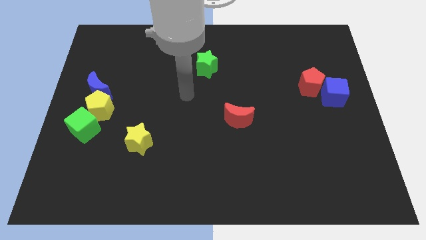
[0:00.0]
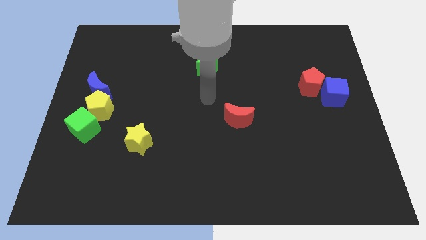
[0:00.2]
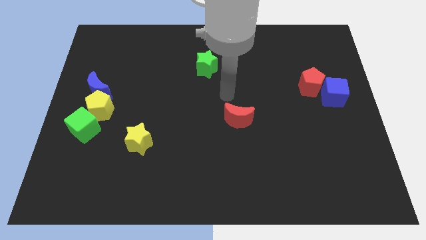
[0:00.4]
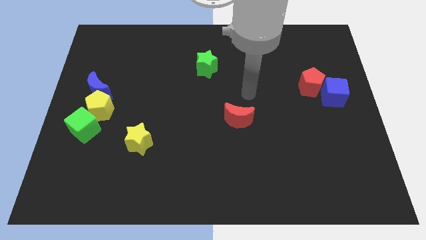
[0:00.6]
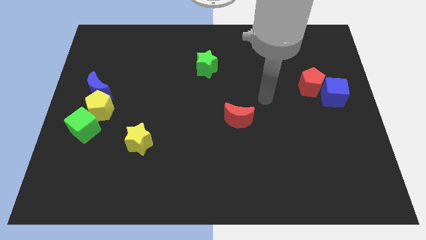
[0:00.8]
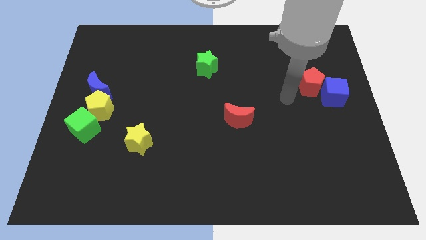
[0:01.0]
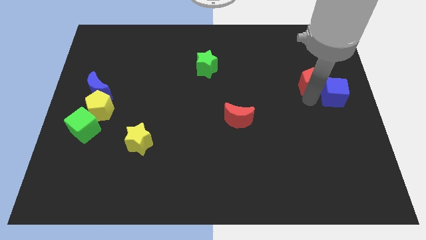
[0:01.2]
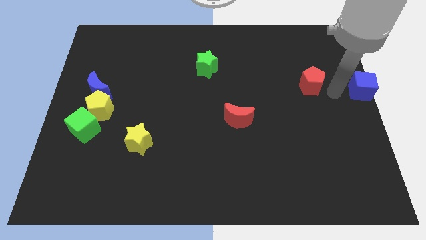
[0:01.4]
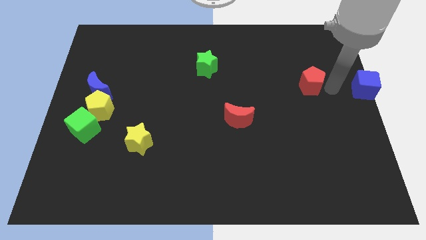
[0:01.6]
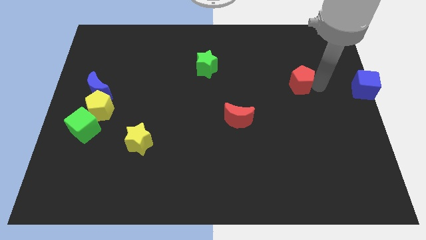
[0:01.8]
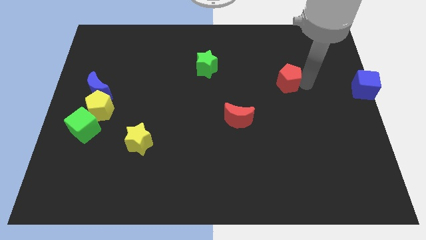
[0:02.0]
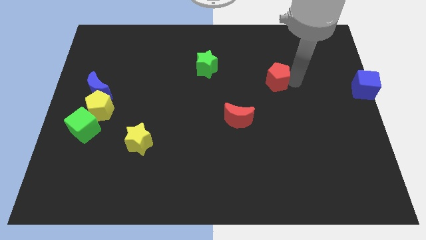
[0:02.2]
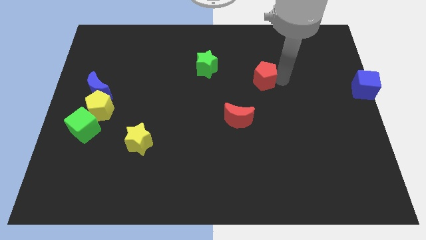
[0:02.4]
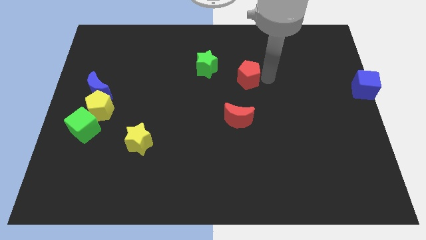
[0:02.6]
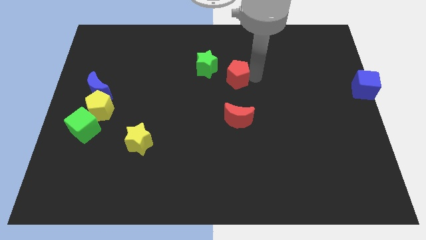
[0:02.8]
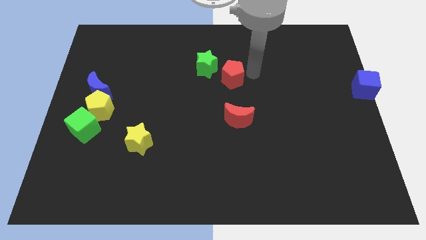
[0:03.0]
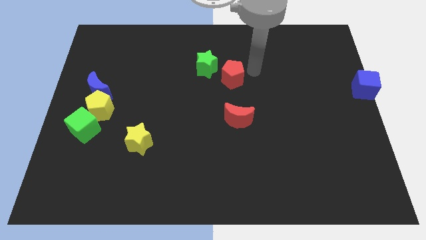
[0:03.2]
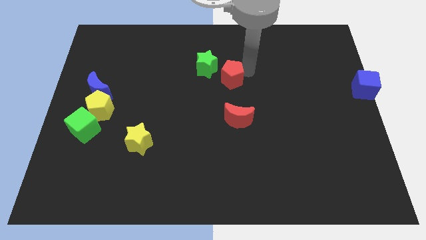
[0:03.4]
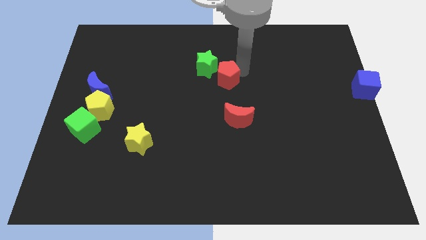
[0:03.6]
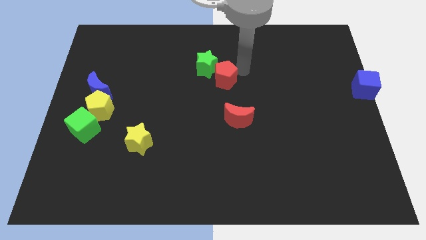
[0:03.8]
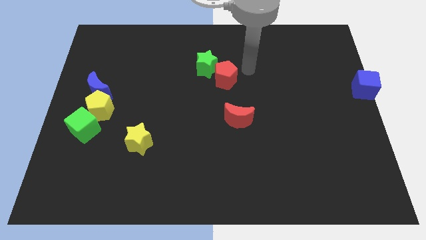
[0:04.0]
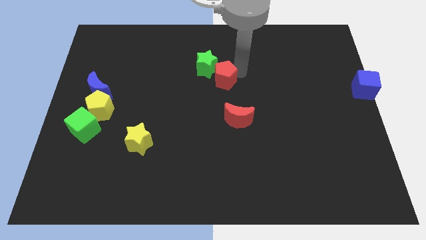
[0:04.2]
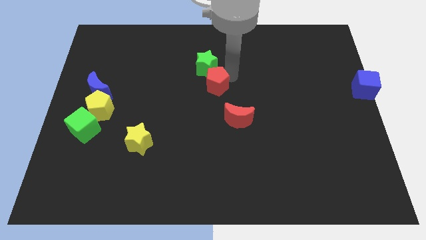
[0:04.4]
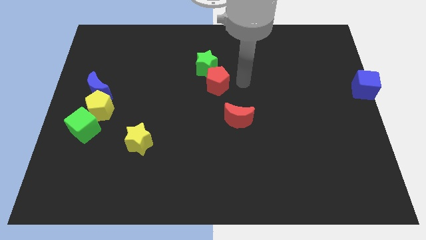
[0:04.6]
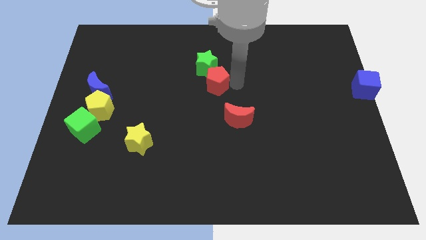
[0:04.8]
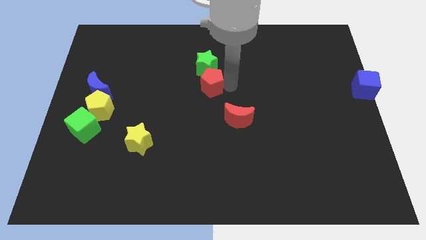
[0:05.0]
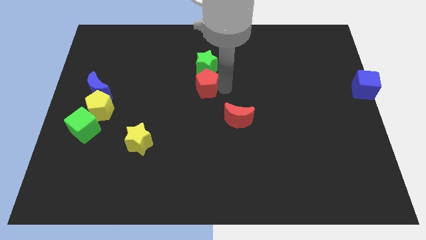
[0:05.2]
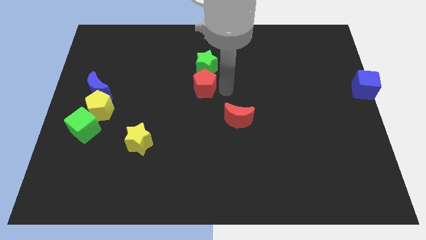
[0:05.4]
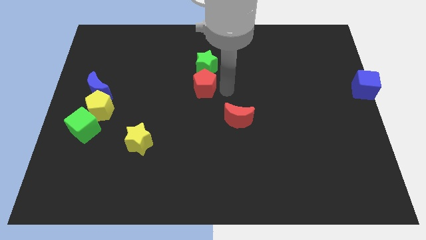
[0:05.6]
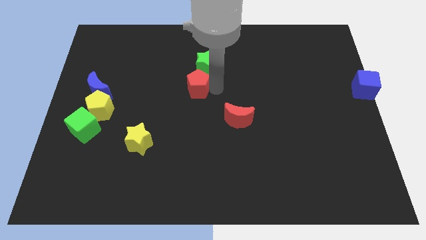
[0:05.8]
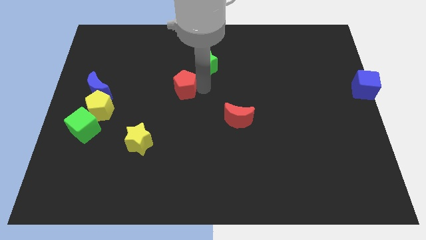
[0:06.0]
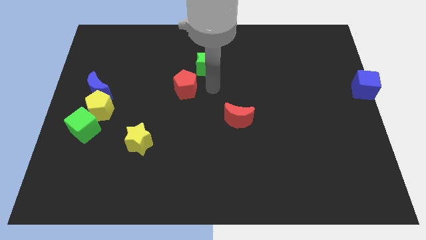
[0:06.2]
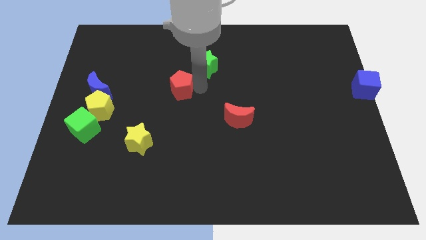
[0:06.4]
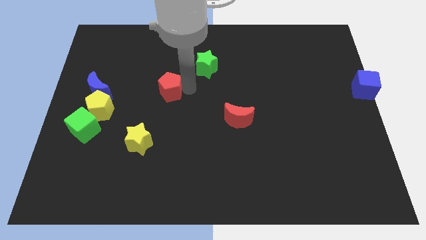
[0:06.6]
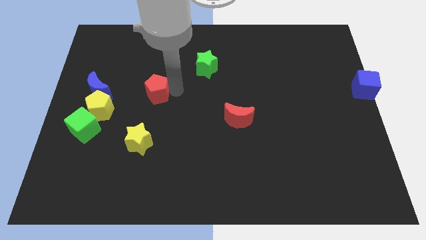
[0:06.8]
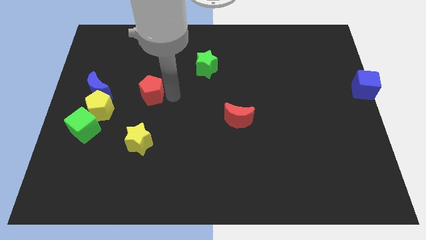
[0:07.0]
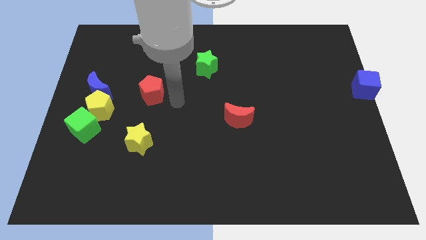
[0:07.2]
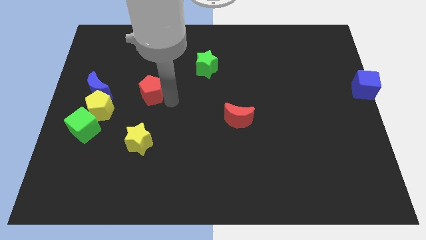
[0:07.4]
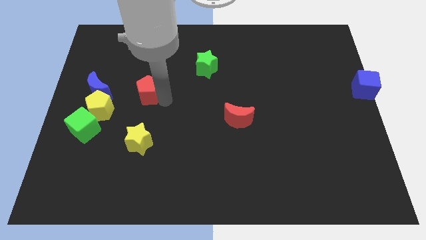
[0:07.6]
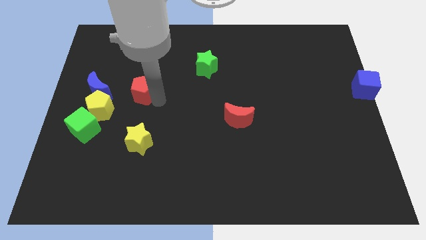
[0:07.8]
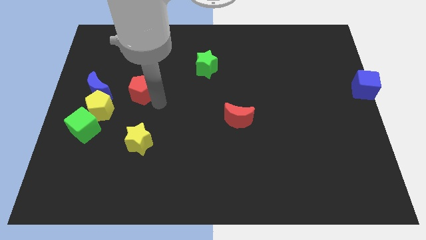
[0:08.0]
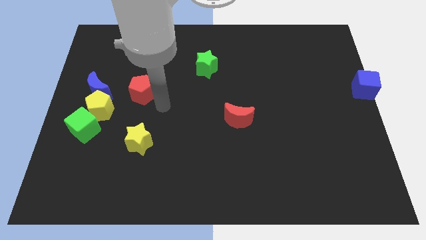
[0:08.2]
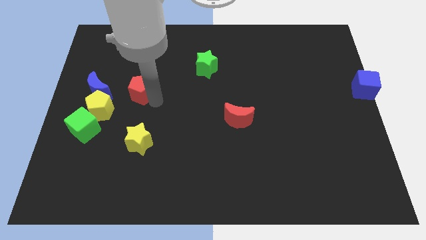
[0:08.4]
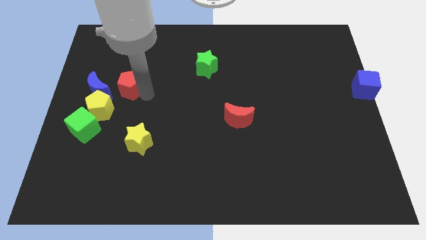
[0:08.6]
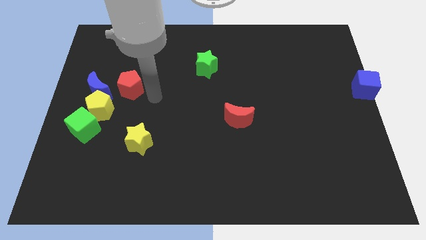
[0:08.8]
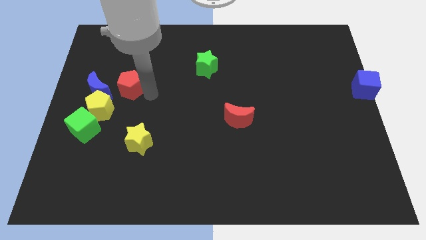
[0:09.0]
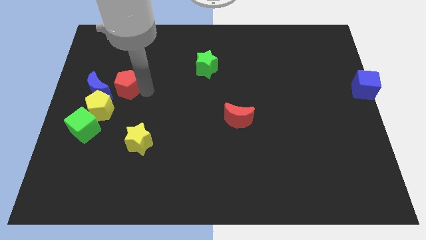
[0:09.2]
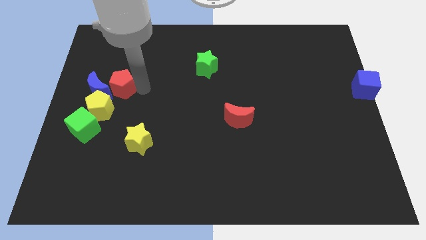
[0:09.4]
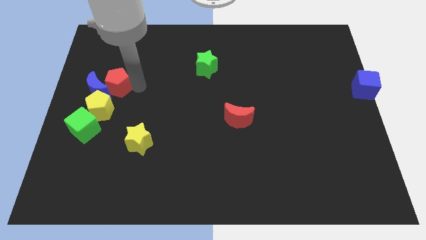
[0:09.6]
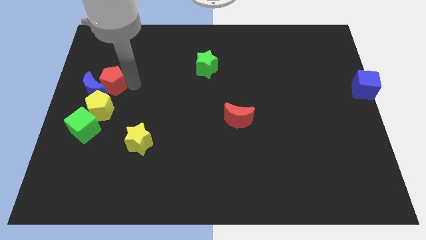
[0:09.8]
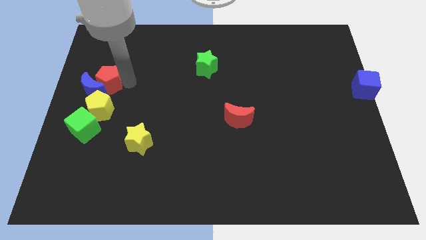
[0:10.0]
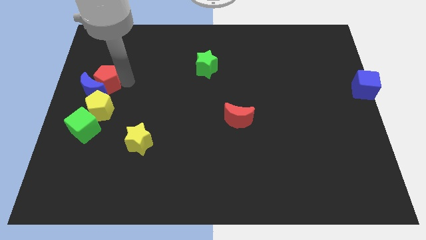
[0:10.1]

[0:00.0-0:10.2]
push the red pentagon to the left side

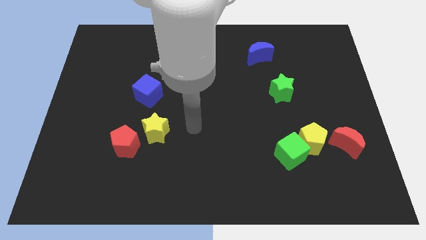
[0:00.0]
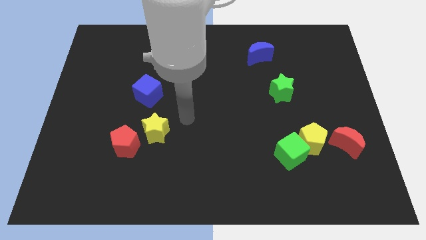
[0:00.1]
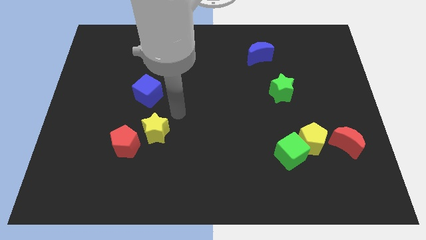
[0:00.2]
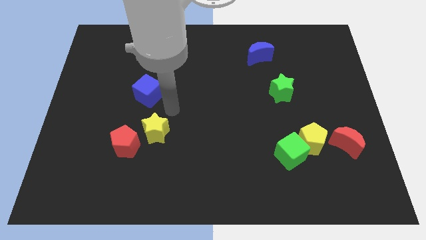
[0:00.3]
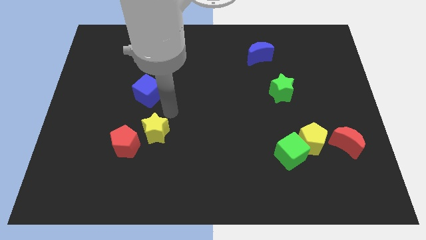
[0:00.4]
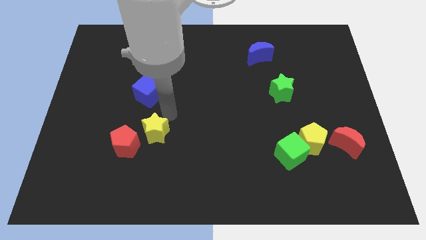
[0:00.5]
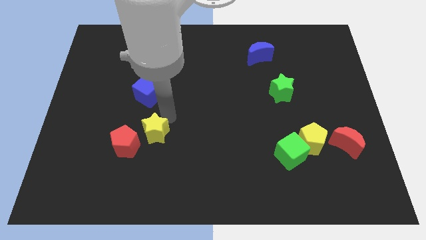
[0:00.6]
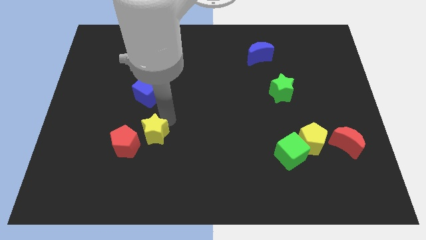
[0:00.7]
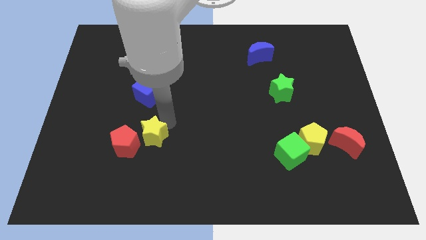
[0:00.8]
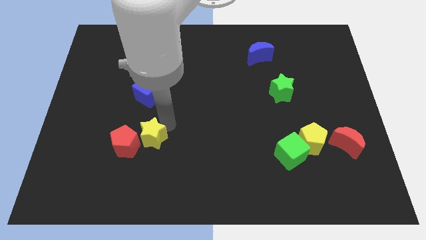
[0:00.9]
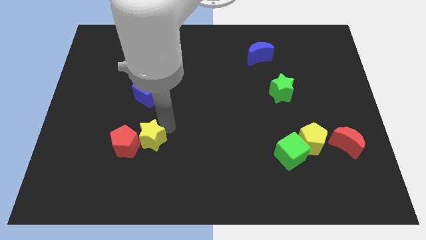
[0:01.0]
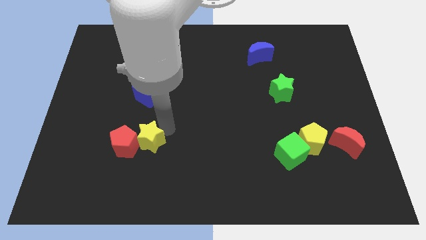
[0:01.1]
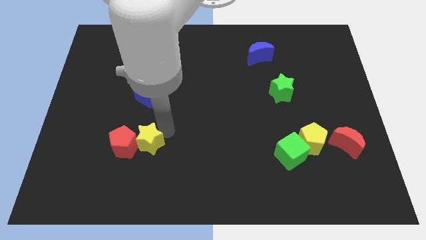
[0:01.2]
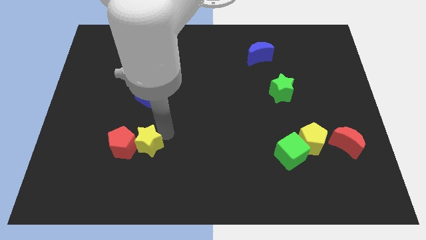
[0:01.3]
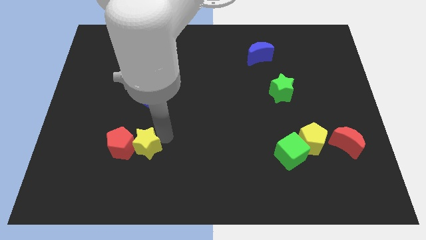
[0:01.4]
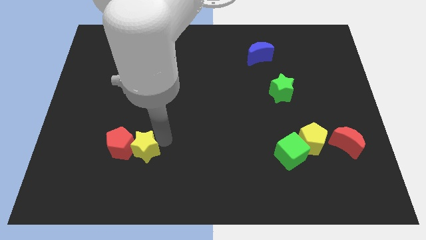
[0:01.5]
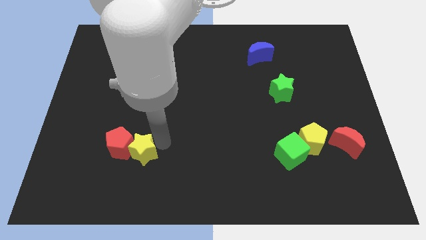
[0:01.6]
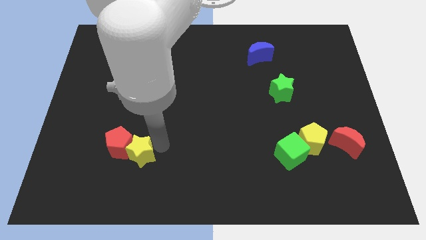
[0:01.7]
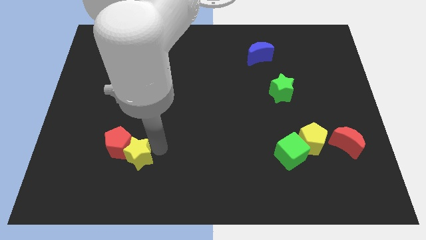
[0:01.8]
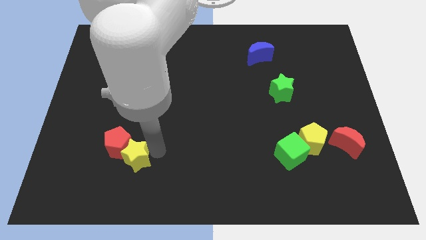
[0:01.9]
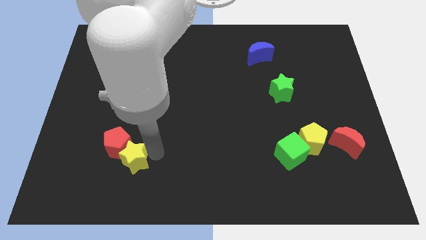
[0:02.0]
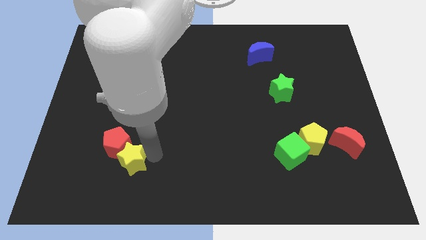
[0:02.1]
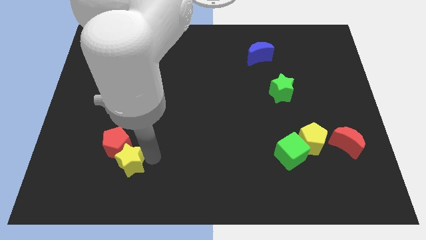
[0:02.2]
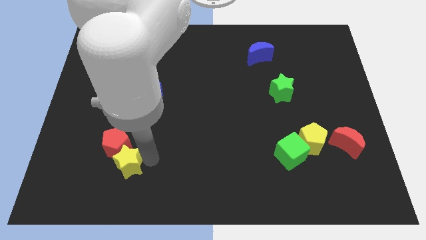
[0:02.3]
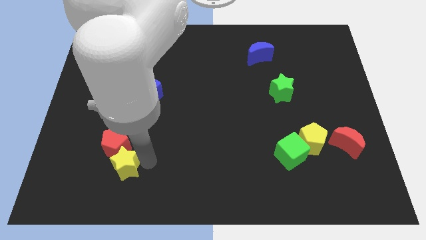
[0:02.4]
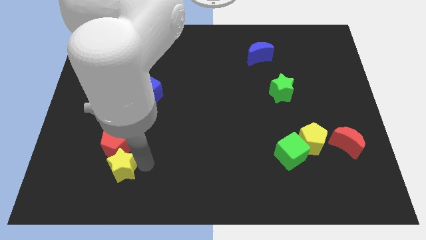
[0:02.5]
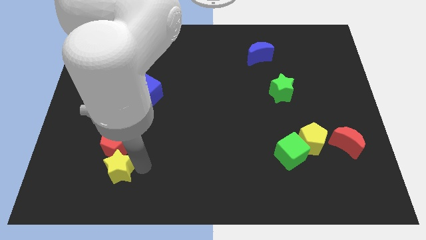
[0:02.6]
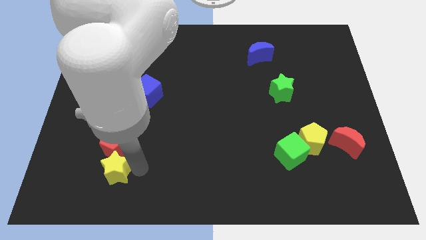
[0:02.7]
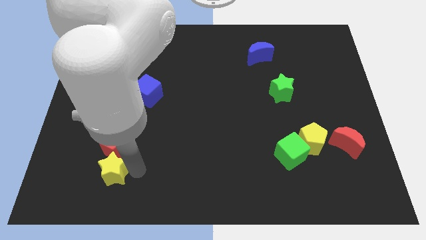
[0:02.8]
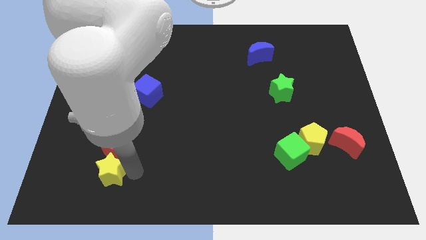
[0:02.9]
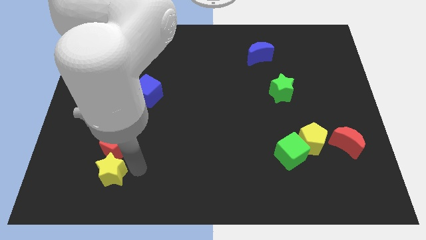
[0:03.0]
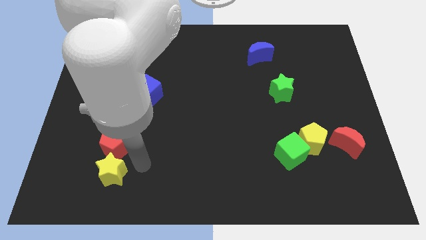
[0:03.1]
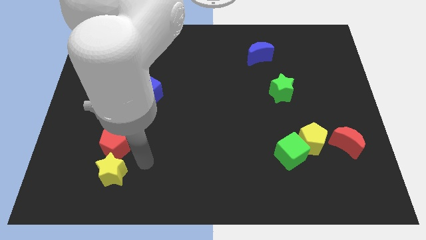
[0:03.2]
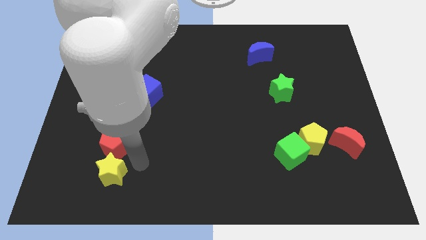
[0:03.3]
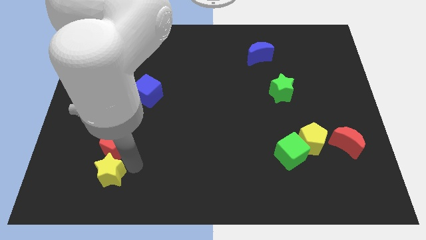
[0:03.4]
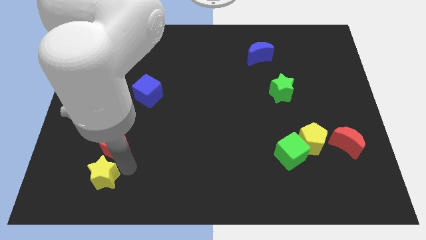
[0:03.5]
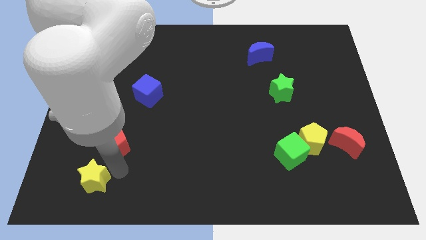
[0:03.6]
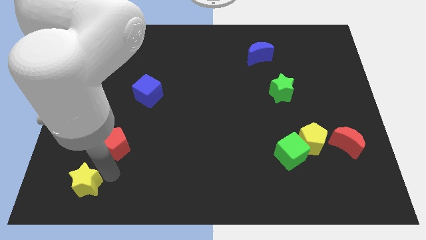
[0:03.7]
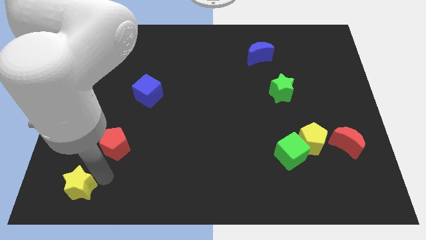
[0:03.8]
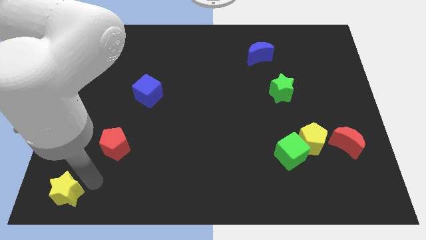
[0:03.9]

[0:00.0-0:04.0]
push the yellow star to the bottom left
